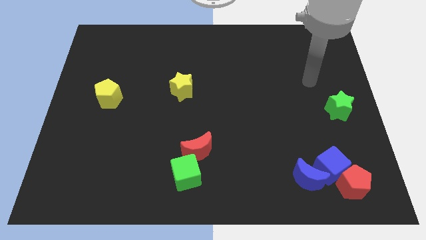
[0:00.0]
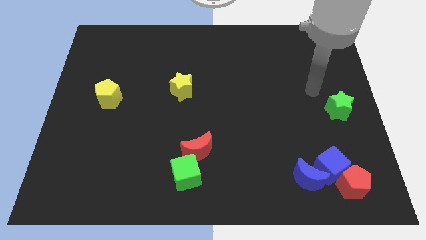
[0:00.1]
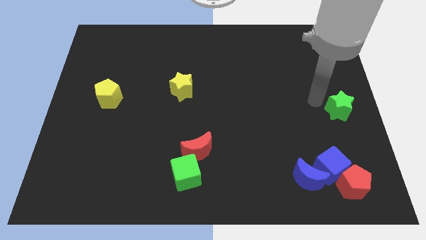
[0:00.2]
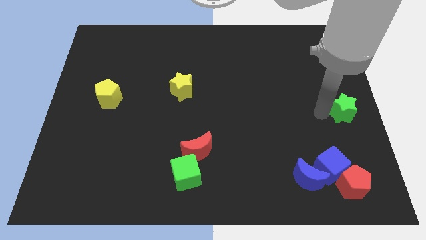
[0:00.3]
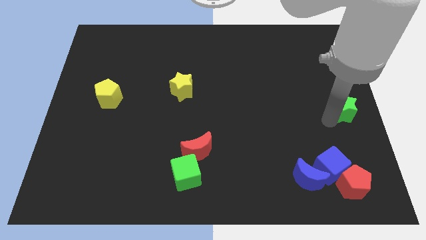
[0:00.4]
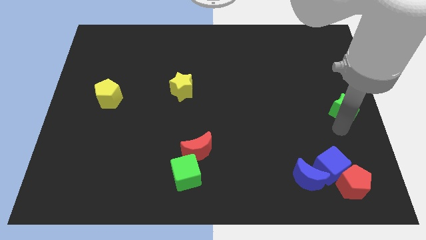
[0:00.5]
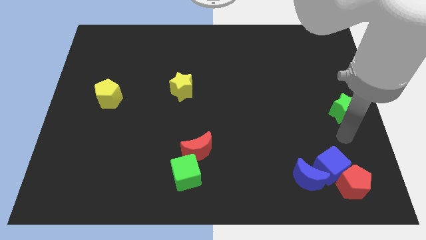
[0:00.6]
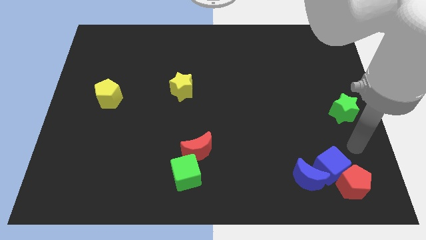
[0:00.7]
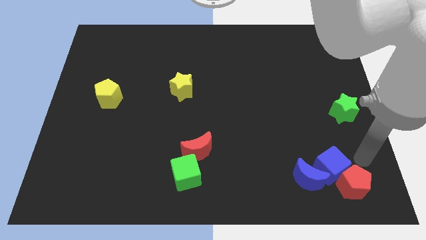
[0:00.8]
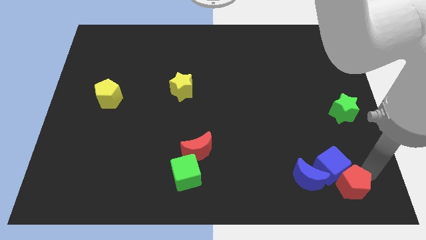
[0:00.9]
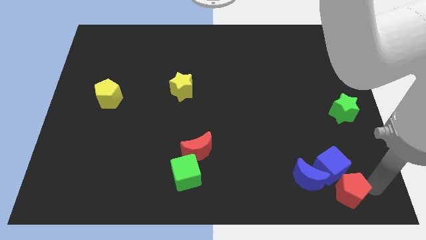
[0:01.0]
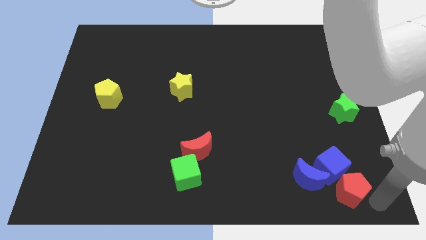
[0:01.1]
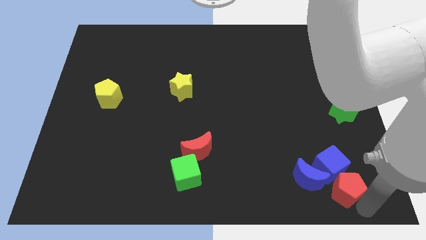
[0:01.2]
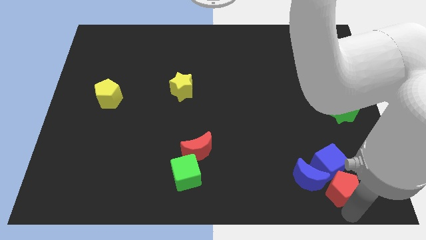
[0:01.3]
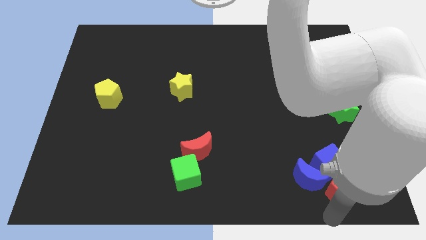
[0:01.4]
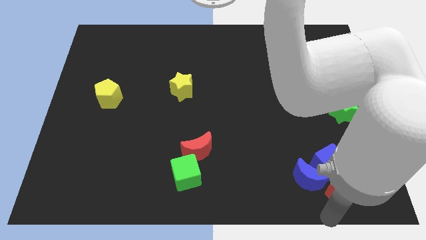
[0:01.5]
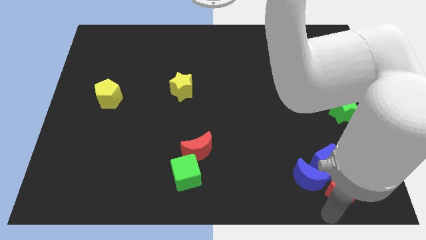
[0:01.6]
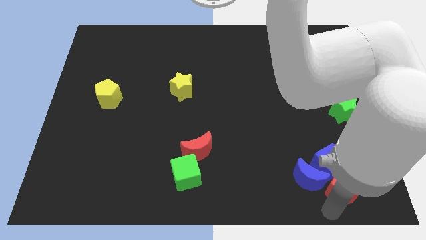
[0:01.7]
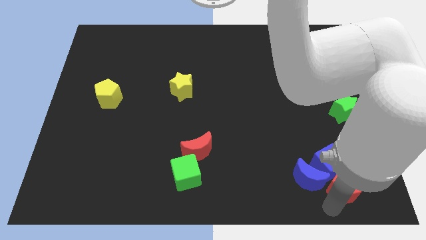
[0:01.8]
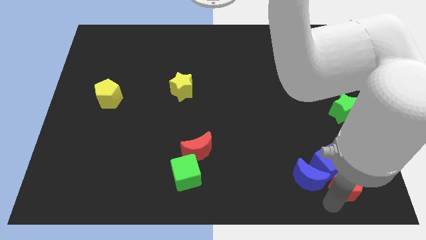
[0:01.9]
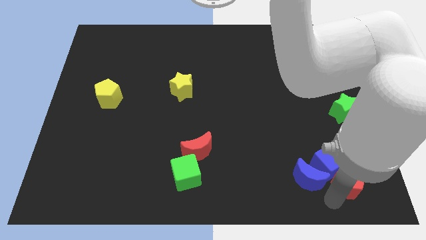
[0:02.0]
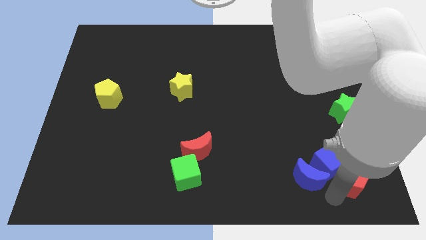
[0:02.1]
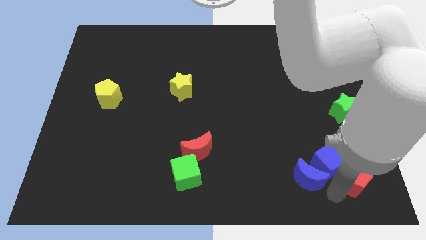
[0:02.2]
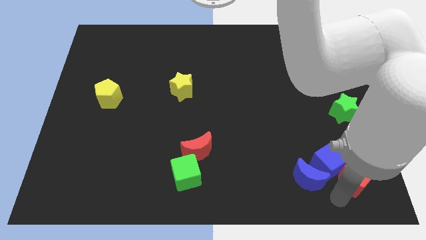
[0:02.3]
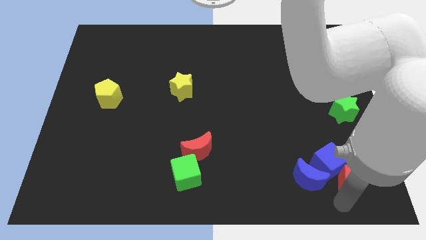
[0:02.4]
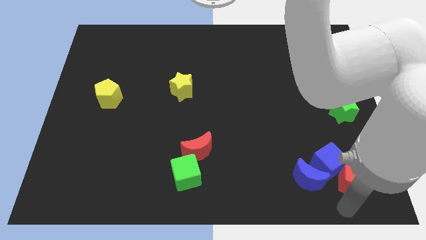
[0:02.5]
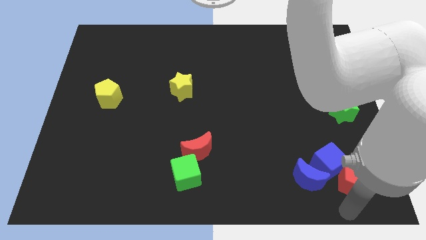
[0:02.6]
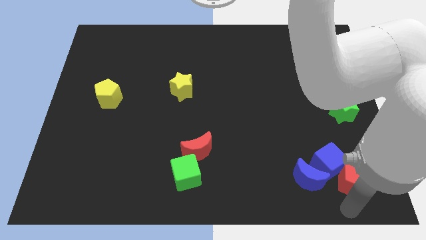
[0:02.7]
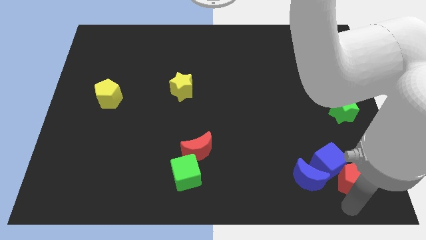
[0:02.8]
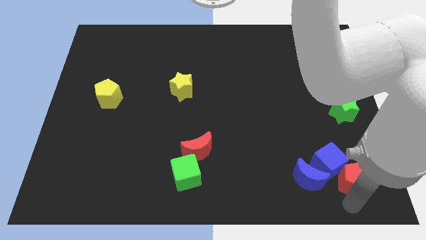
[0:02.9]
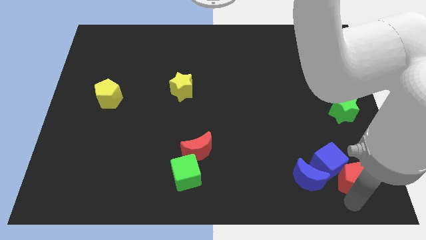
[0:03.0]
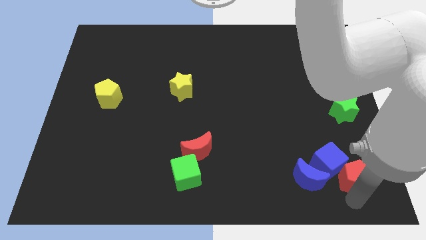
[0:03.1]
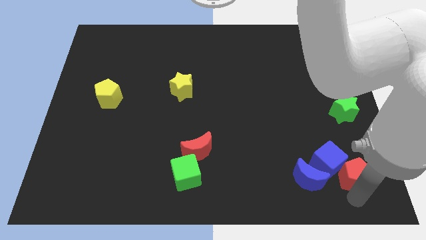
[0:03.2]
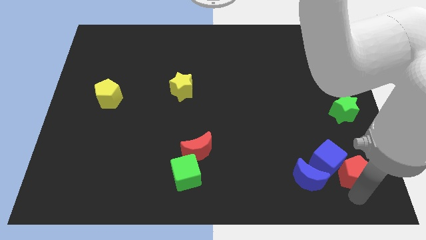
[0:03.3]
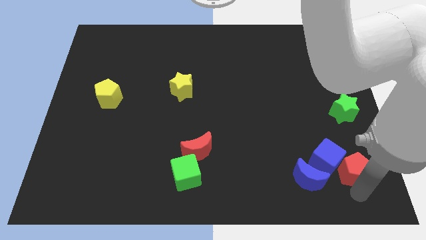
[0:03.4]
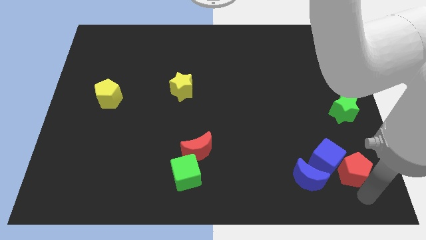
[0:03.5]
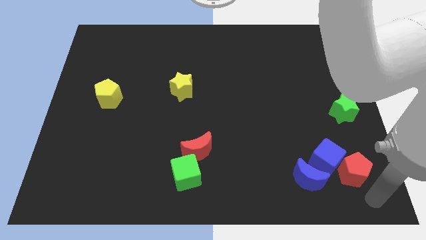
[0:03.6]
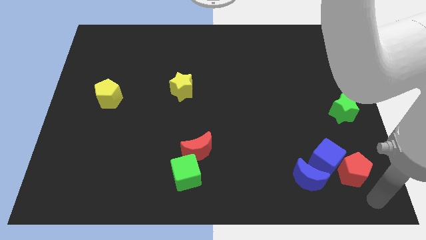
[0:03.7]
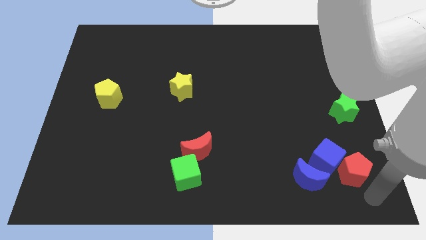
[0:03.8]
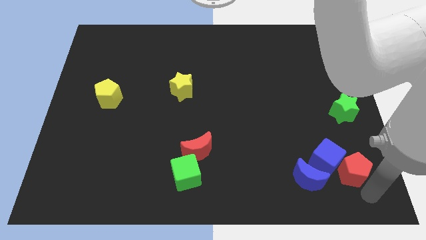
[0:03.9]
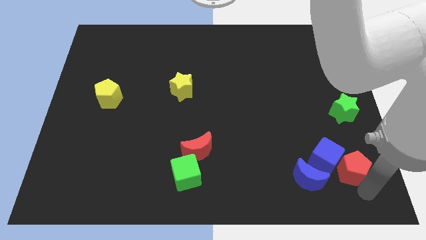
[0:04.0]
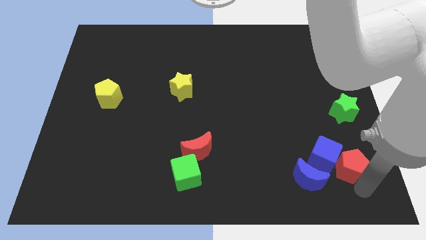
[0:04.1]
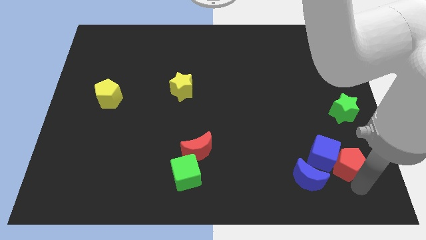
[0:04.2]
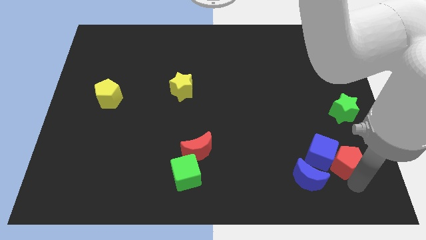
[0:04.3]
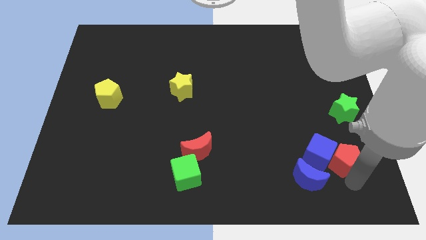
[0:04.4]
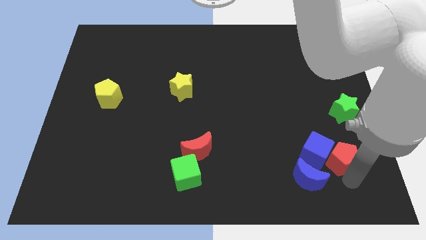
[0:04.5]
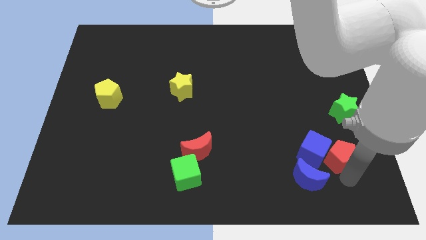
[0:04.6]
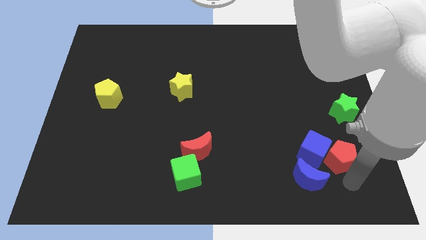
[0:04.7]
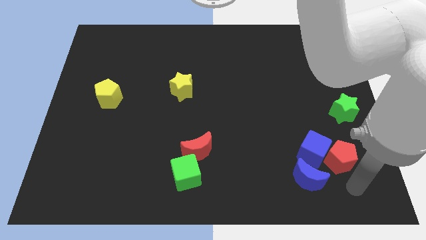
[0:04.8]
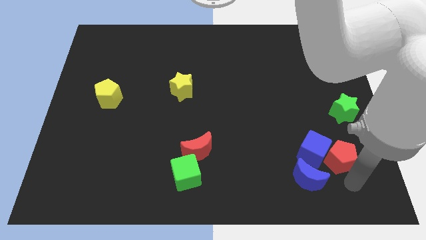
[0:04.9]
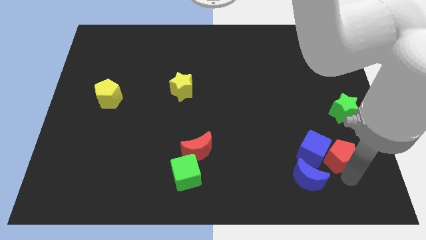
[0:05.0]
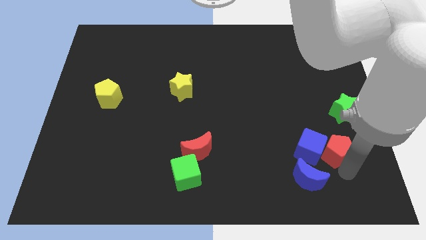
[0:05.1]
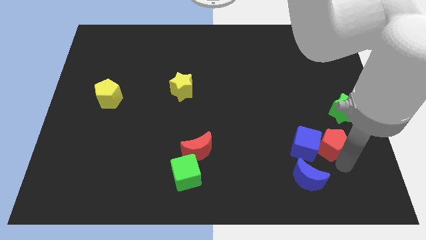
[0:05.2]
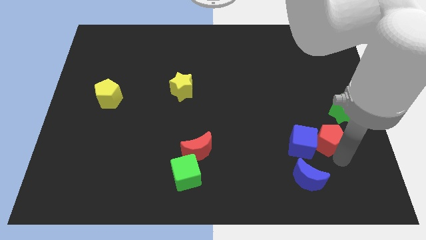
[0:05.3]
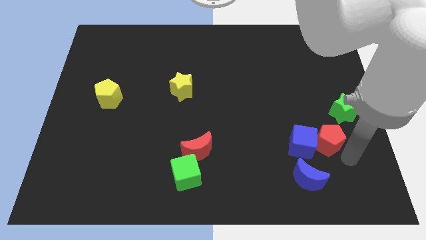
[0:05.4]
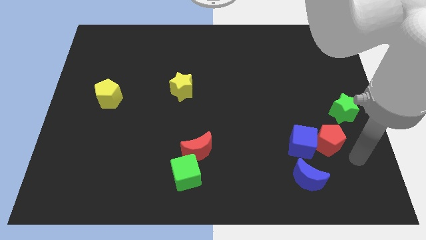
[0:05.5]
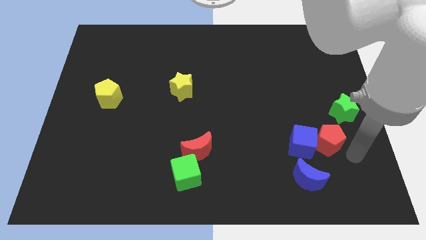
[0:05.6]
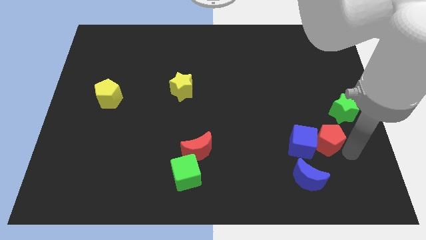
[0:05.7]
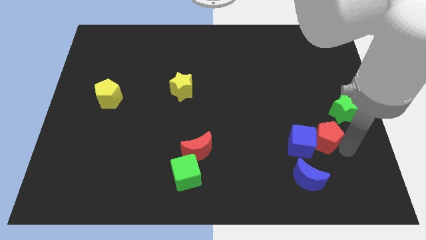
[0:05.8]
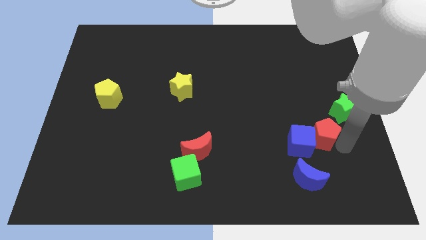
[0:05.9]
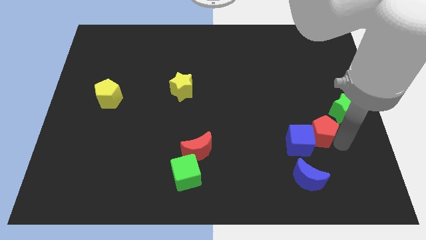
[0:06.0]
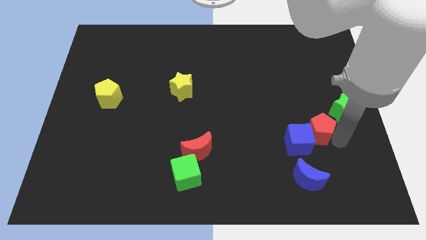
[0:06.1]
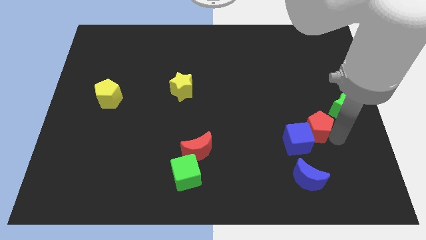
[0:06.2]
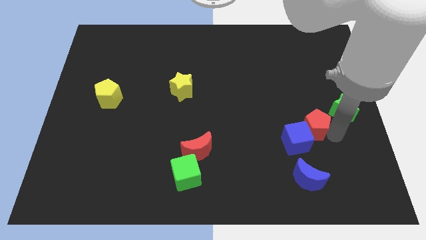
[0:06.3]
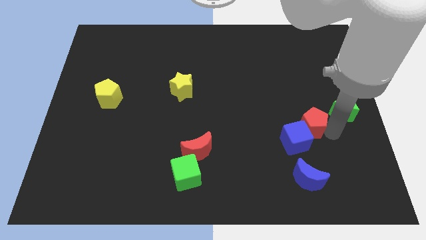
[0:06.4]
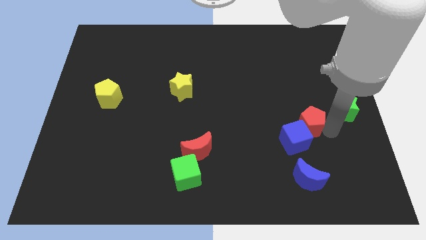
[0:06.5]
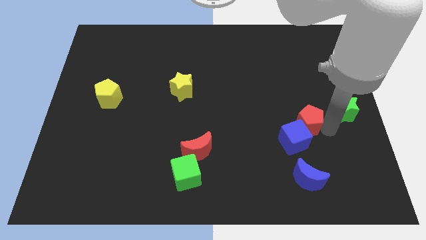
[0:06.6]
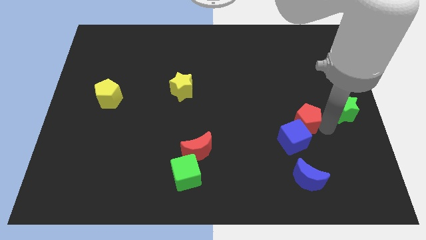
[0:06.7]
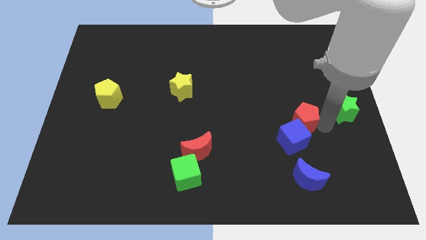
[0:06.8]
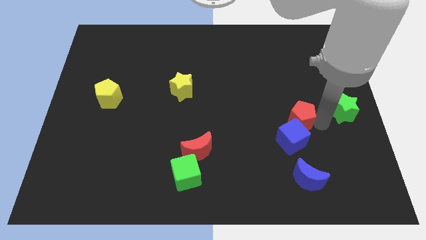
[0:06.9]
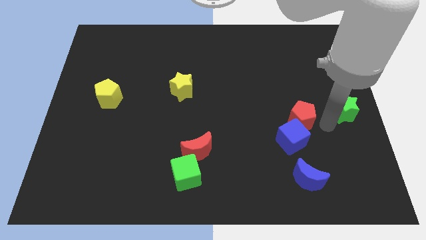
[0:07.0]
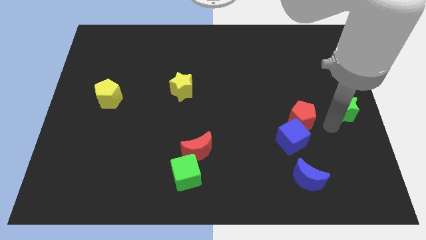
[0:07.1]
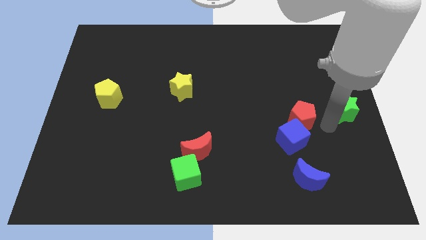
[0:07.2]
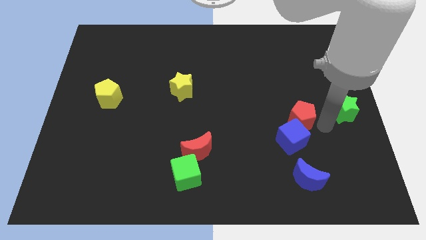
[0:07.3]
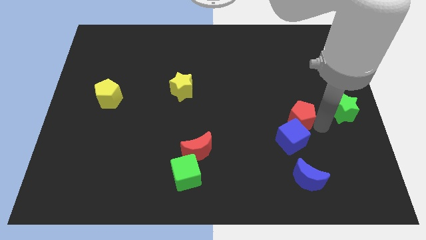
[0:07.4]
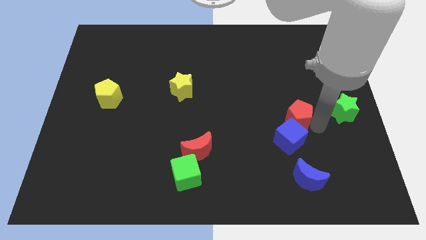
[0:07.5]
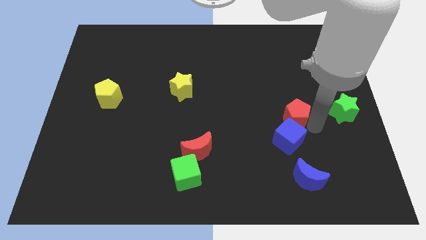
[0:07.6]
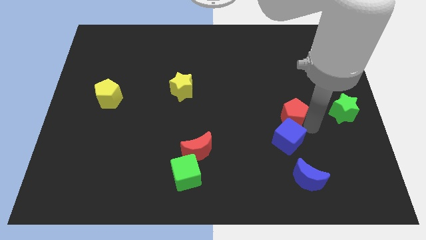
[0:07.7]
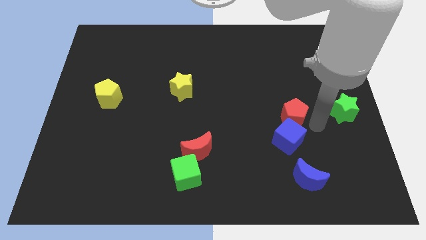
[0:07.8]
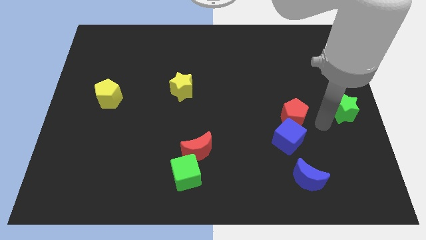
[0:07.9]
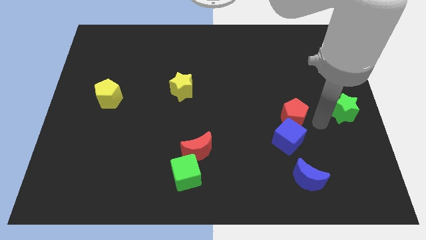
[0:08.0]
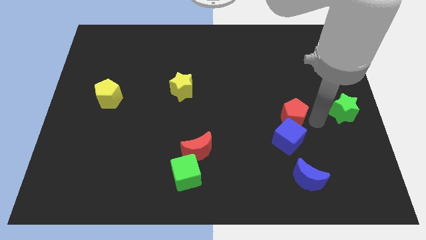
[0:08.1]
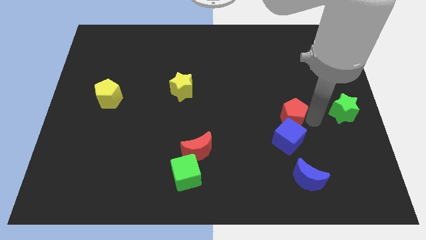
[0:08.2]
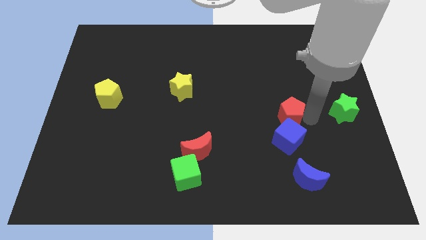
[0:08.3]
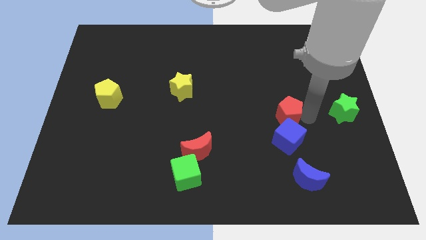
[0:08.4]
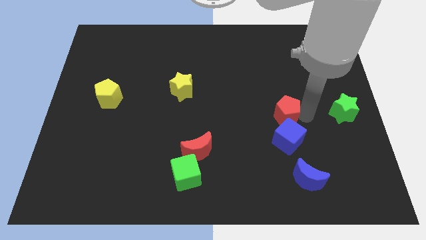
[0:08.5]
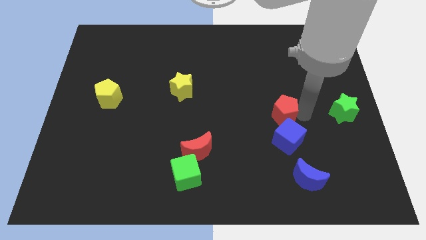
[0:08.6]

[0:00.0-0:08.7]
slide the red pentagon up and to the left diagonally
